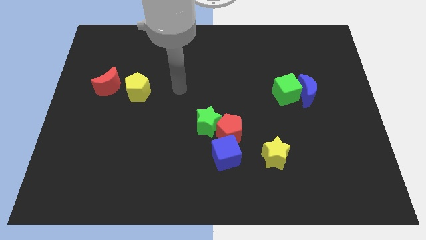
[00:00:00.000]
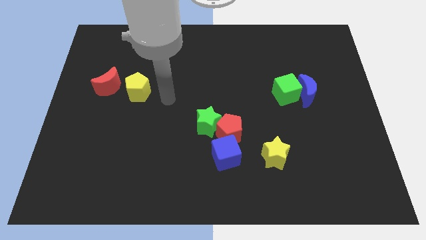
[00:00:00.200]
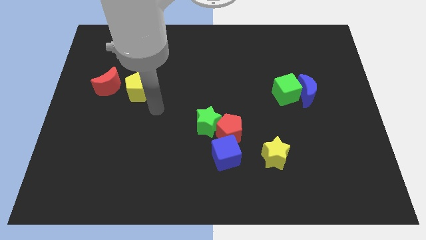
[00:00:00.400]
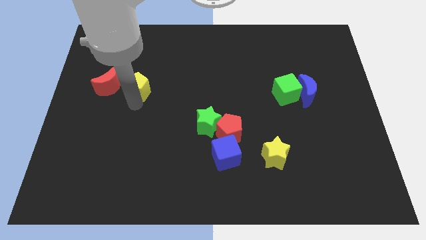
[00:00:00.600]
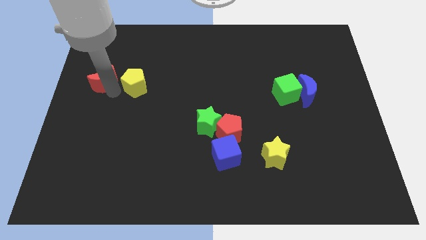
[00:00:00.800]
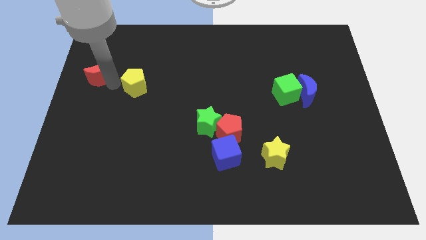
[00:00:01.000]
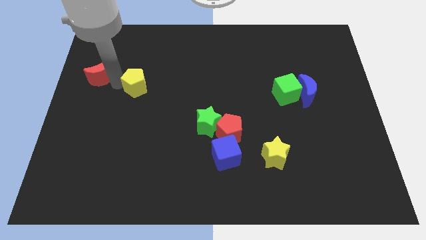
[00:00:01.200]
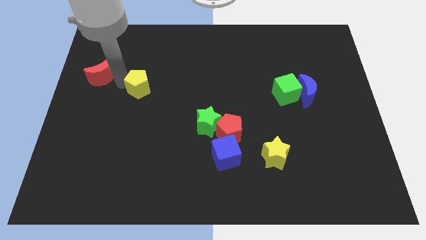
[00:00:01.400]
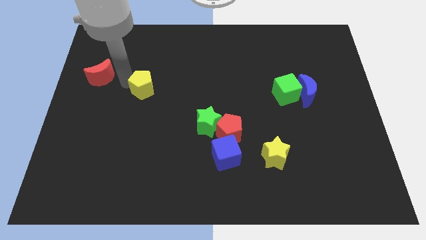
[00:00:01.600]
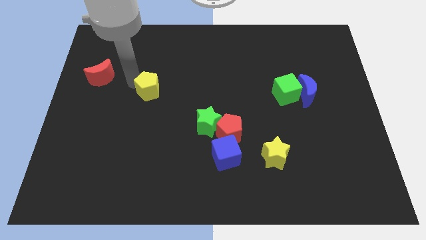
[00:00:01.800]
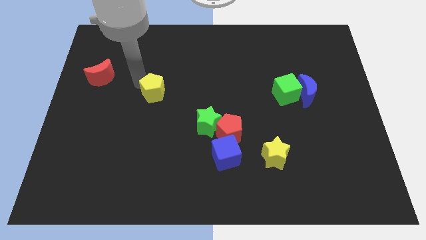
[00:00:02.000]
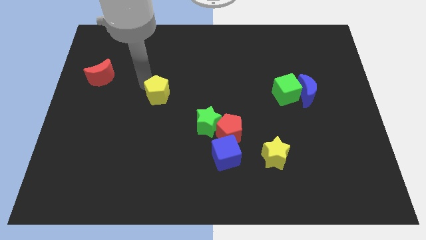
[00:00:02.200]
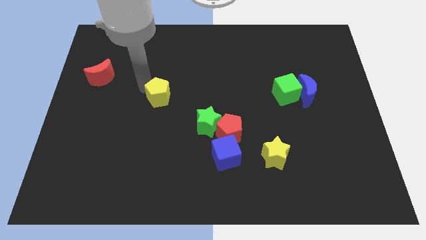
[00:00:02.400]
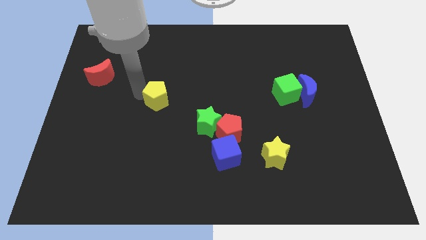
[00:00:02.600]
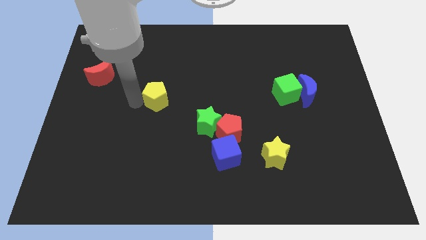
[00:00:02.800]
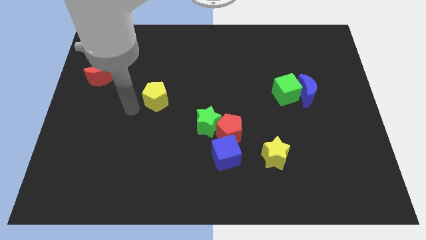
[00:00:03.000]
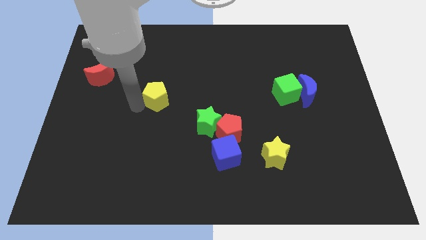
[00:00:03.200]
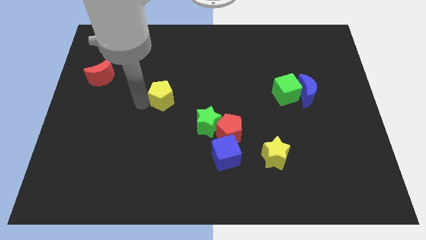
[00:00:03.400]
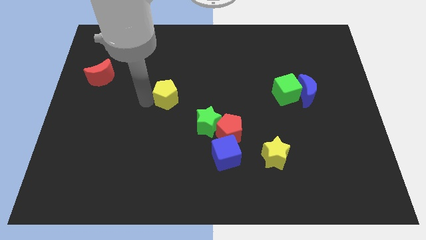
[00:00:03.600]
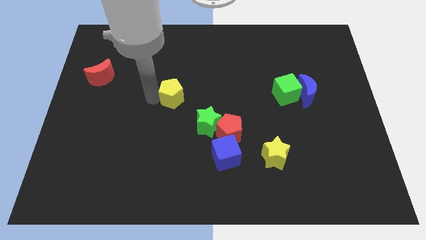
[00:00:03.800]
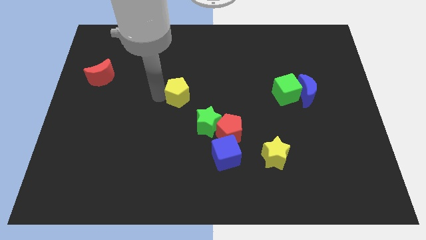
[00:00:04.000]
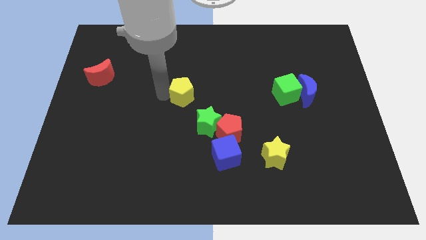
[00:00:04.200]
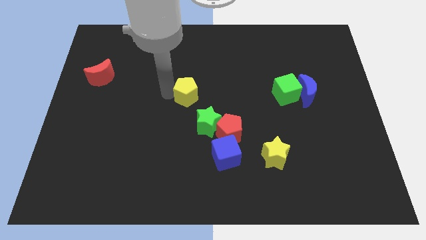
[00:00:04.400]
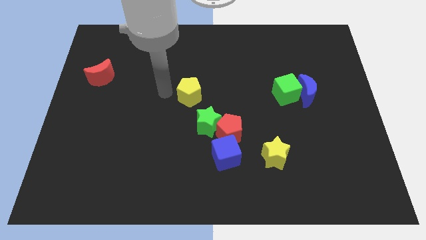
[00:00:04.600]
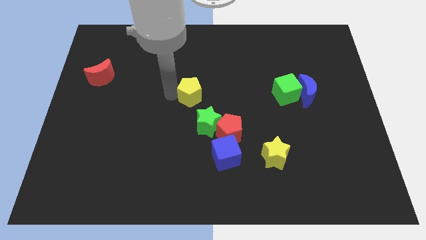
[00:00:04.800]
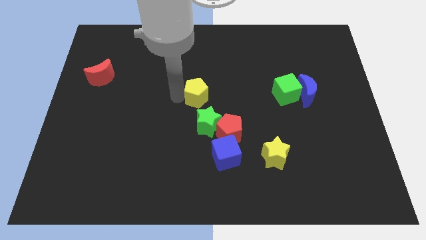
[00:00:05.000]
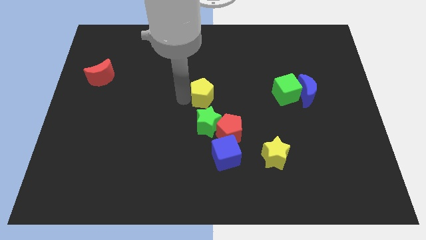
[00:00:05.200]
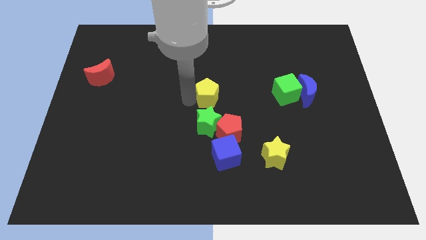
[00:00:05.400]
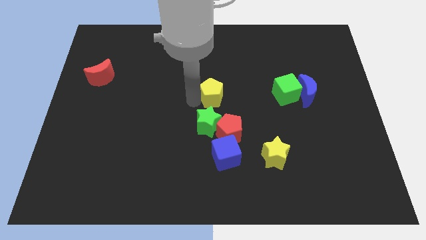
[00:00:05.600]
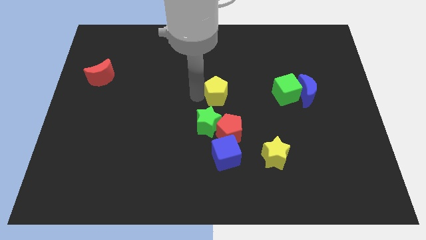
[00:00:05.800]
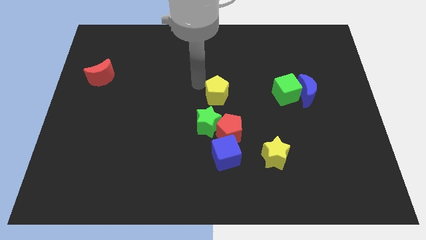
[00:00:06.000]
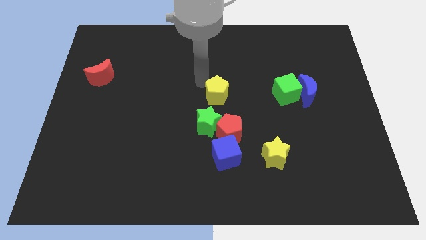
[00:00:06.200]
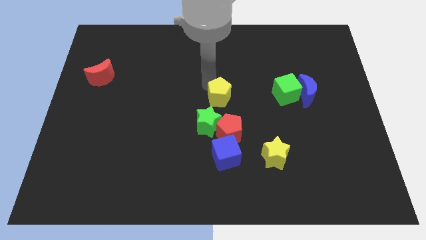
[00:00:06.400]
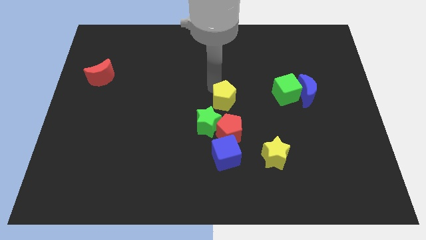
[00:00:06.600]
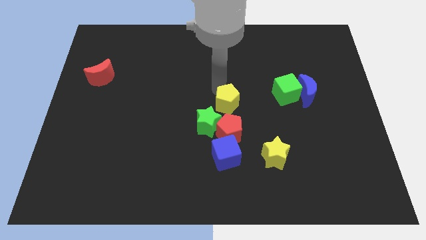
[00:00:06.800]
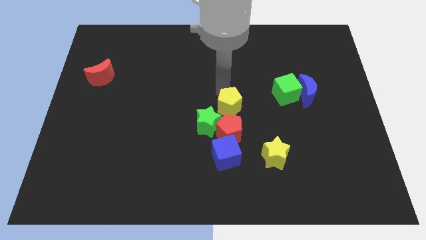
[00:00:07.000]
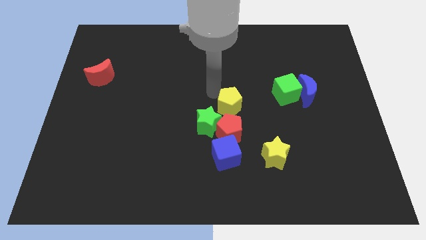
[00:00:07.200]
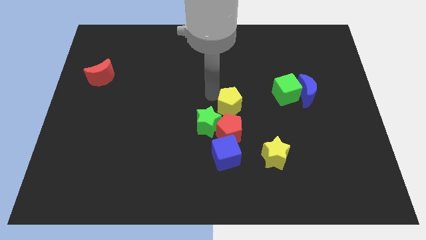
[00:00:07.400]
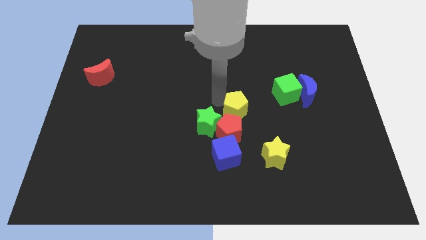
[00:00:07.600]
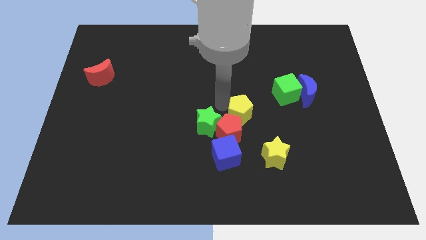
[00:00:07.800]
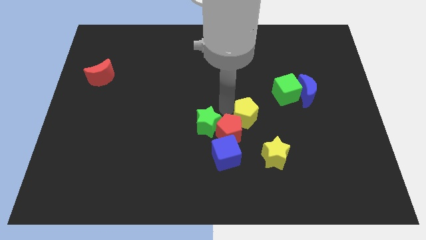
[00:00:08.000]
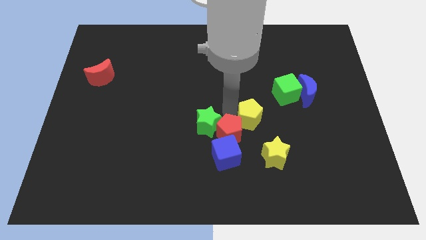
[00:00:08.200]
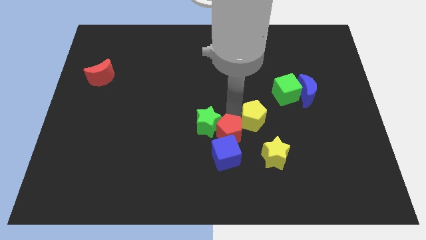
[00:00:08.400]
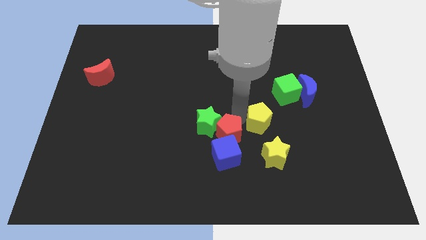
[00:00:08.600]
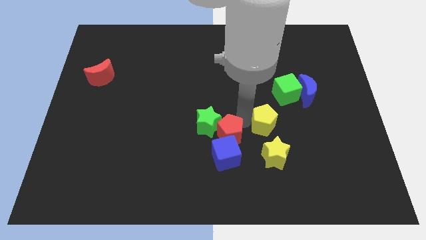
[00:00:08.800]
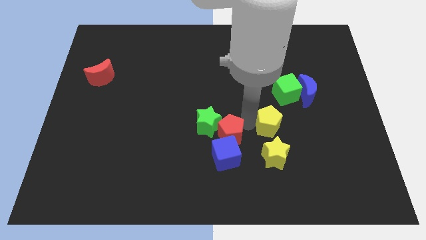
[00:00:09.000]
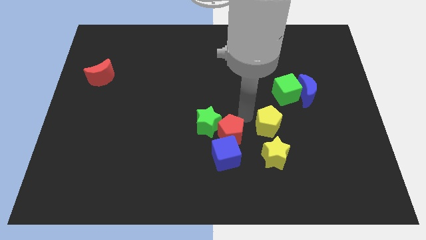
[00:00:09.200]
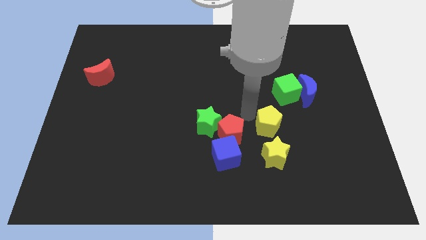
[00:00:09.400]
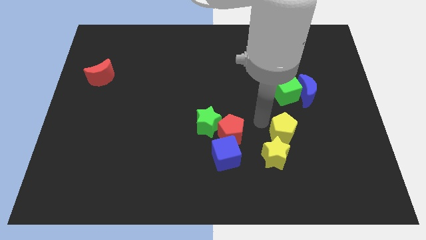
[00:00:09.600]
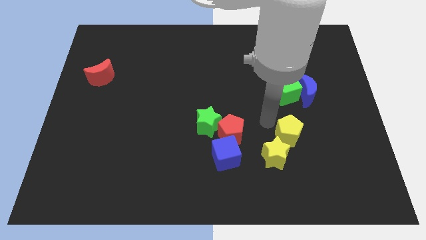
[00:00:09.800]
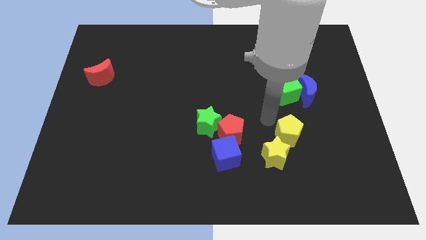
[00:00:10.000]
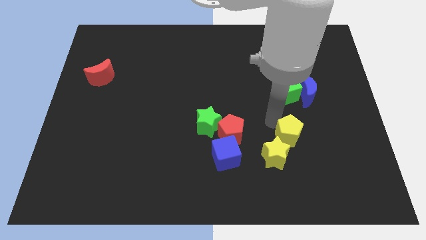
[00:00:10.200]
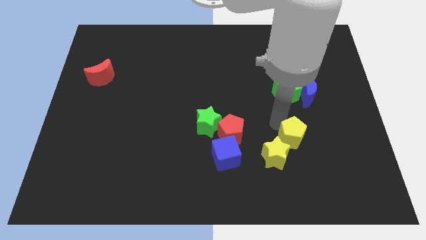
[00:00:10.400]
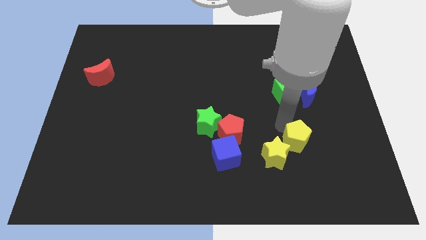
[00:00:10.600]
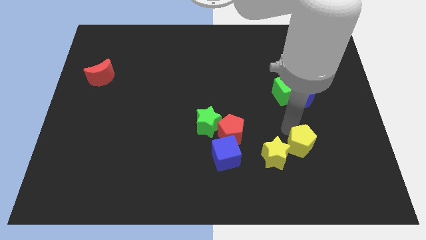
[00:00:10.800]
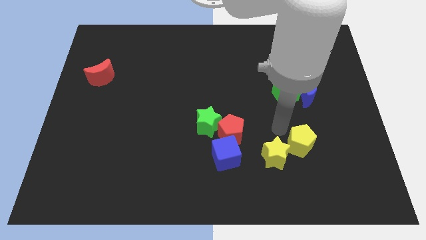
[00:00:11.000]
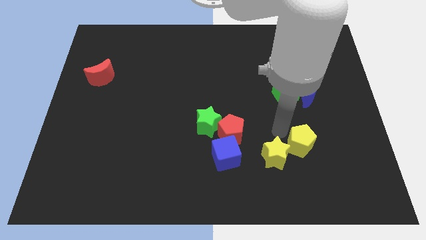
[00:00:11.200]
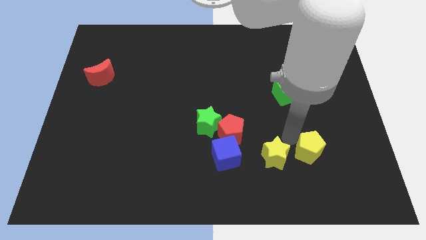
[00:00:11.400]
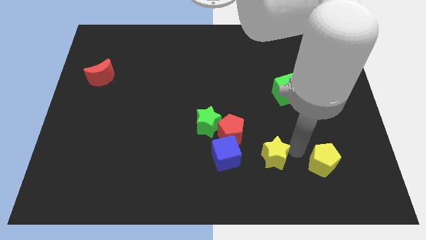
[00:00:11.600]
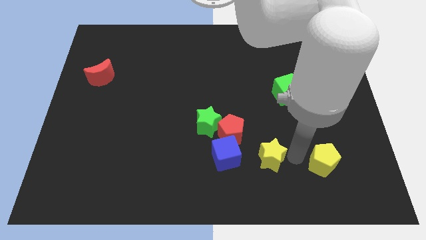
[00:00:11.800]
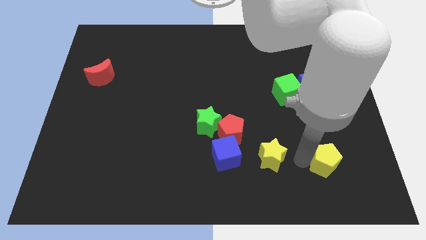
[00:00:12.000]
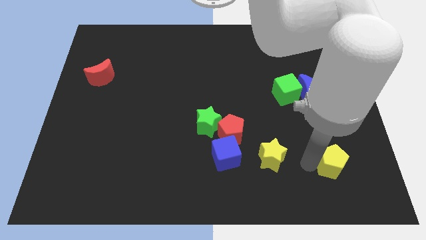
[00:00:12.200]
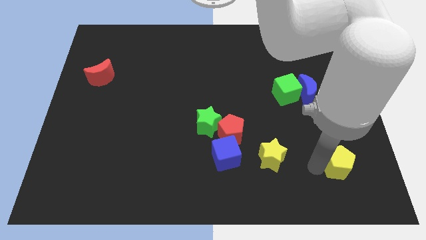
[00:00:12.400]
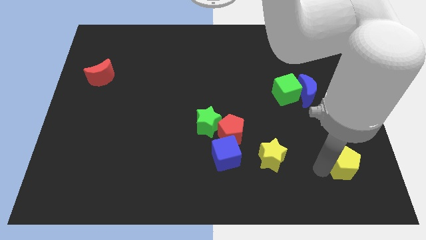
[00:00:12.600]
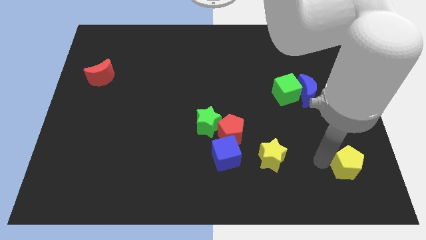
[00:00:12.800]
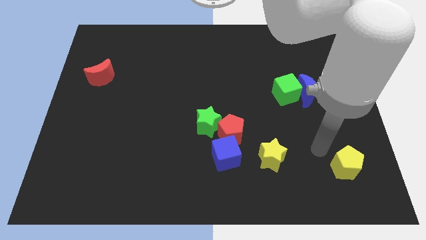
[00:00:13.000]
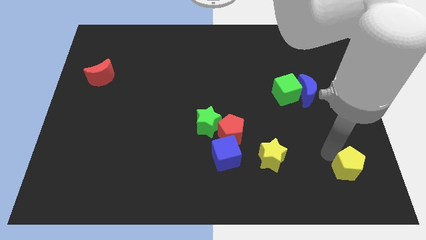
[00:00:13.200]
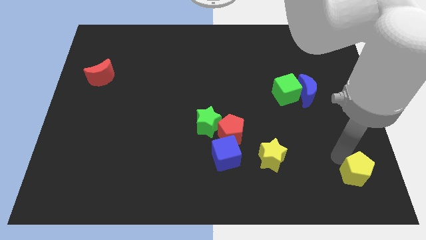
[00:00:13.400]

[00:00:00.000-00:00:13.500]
slide the yellow pentagon to the bottom right of the board
